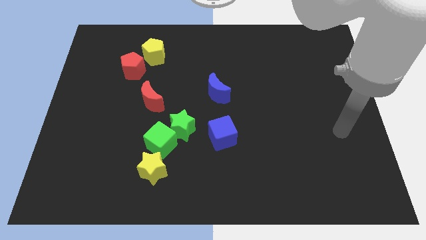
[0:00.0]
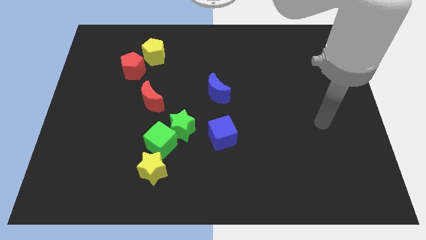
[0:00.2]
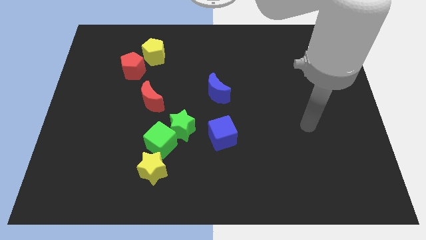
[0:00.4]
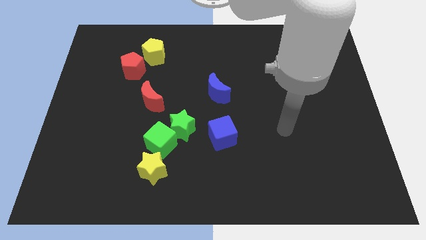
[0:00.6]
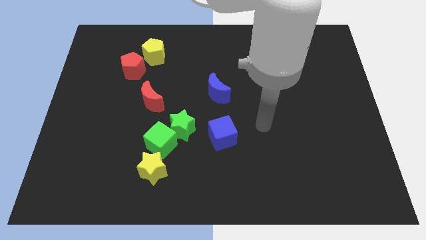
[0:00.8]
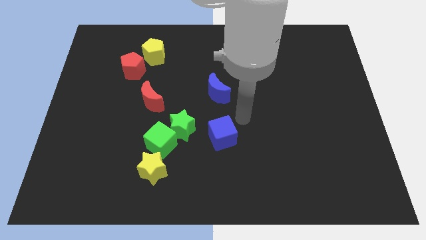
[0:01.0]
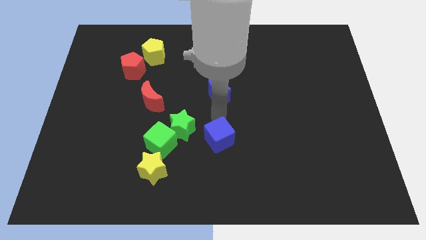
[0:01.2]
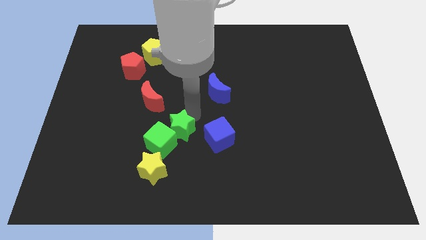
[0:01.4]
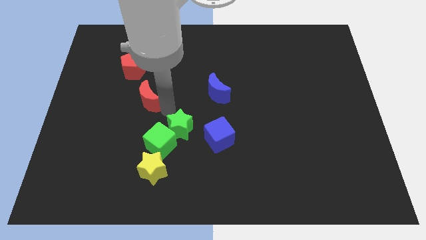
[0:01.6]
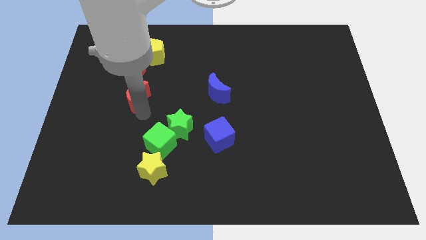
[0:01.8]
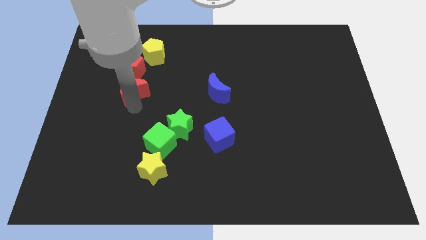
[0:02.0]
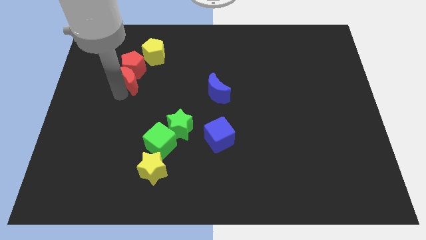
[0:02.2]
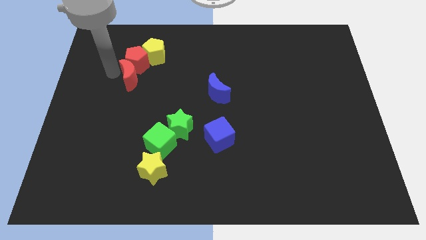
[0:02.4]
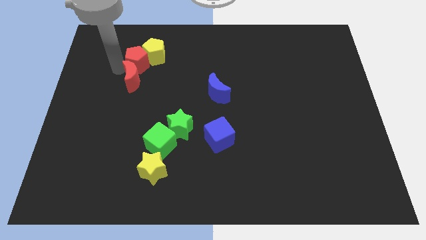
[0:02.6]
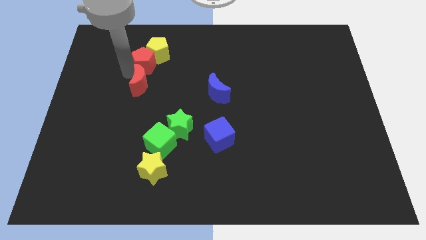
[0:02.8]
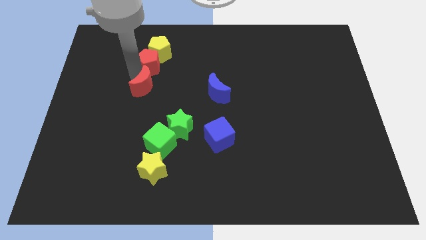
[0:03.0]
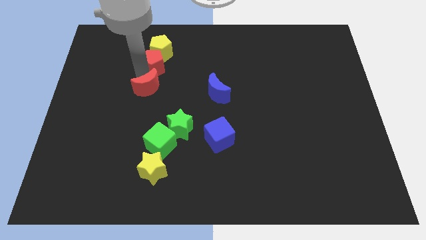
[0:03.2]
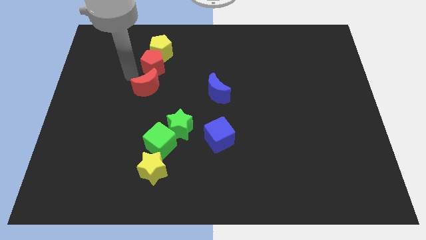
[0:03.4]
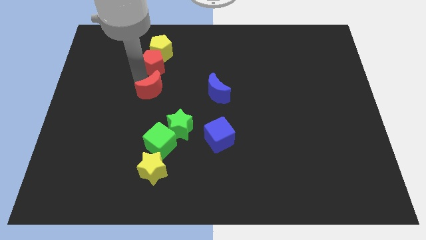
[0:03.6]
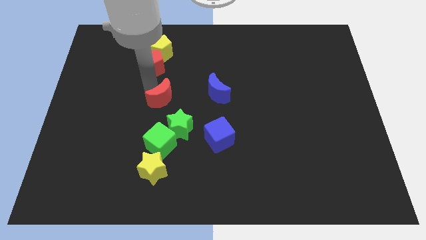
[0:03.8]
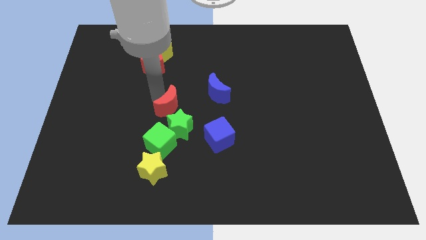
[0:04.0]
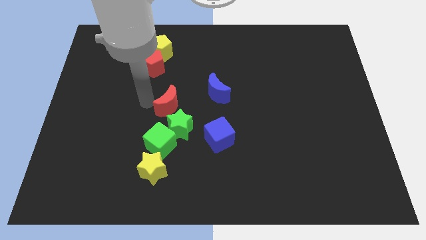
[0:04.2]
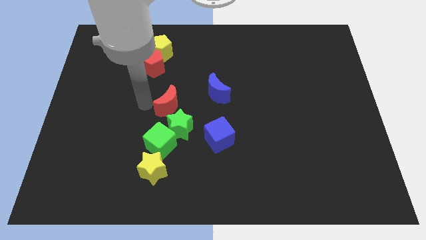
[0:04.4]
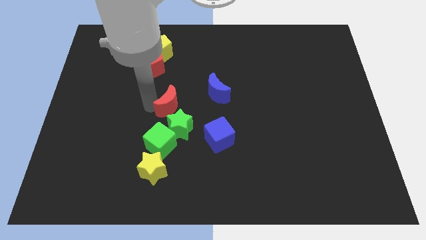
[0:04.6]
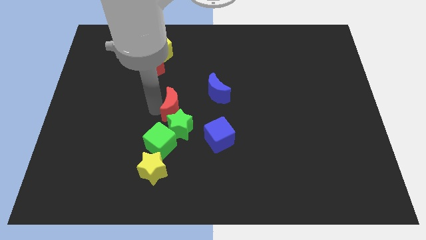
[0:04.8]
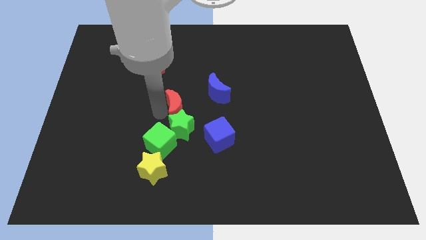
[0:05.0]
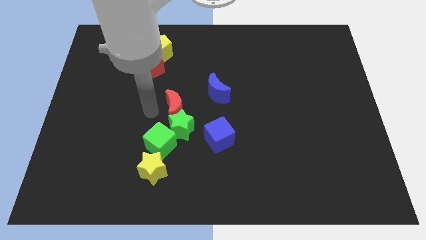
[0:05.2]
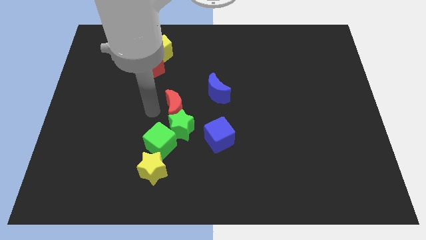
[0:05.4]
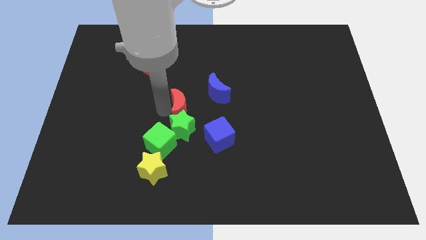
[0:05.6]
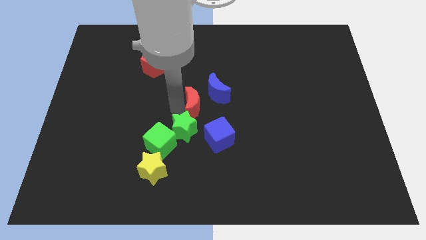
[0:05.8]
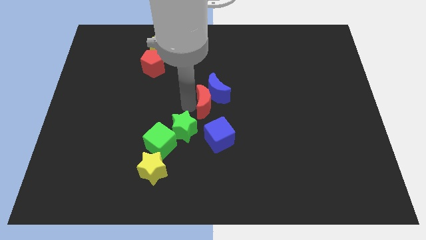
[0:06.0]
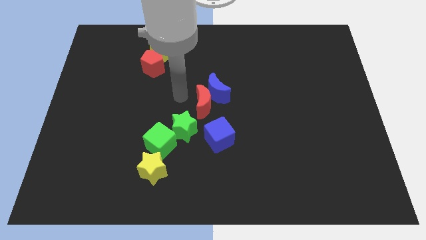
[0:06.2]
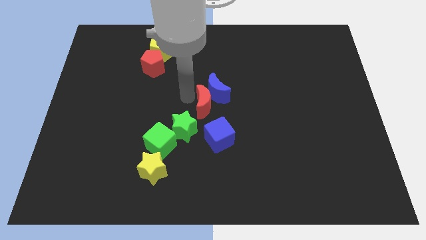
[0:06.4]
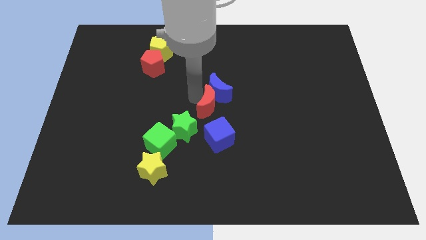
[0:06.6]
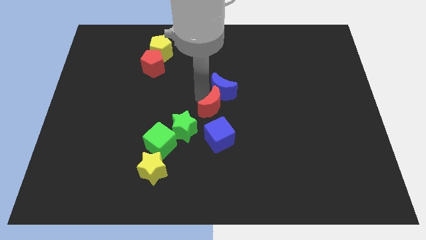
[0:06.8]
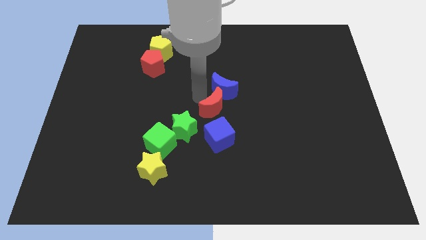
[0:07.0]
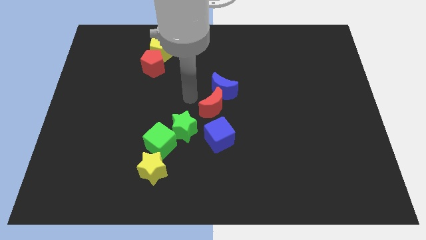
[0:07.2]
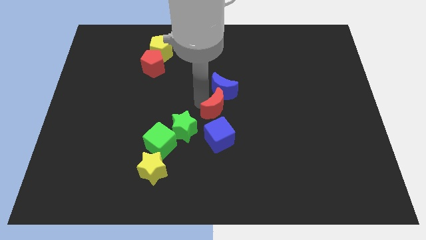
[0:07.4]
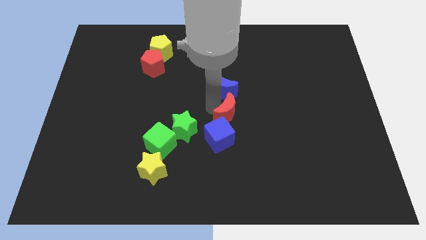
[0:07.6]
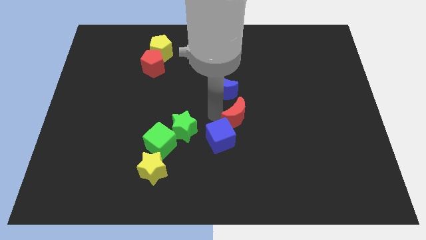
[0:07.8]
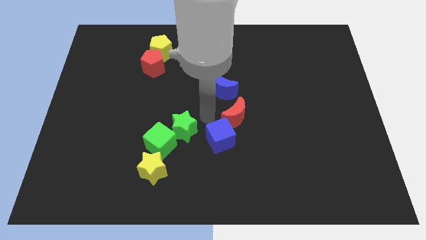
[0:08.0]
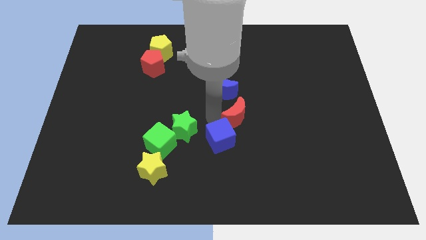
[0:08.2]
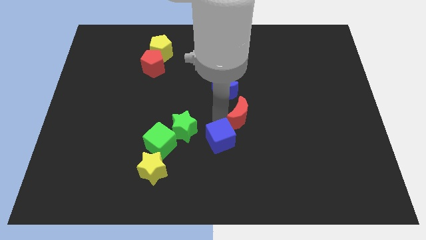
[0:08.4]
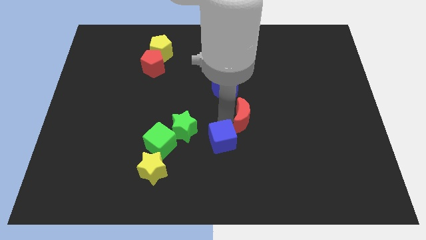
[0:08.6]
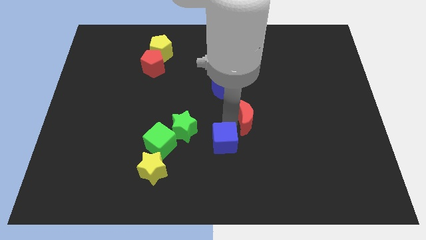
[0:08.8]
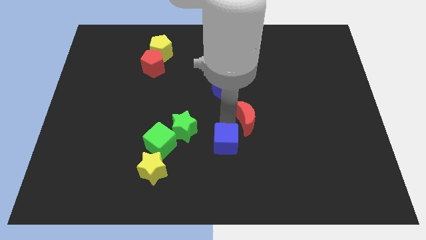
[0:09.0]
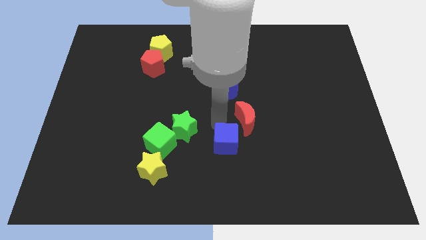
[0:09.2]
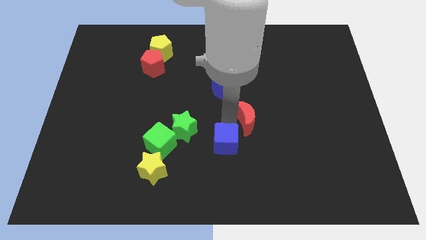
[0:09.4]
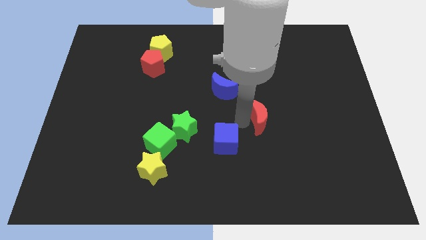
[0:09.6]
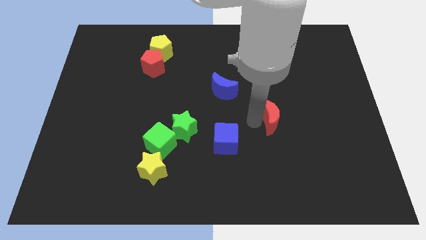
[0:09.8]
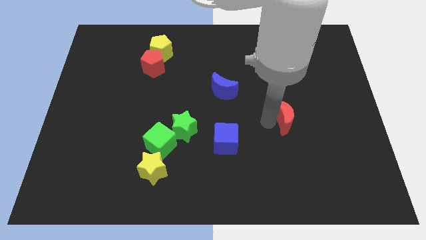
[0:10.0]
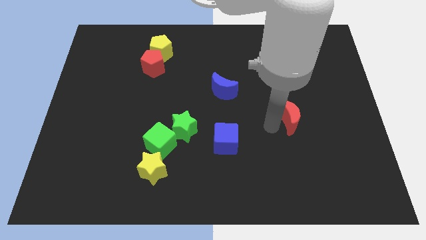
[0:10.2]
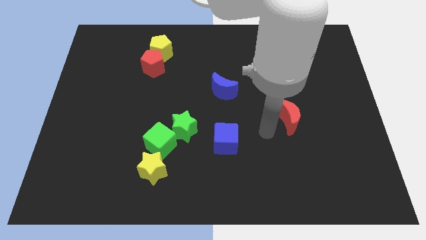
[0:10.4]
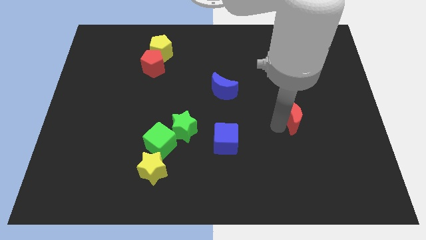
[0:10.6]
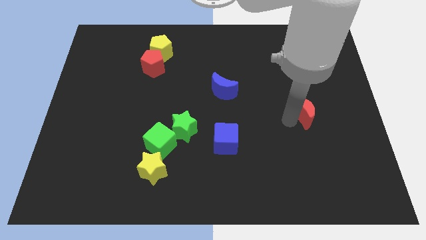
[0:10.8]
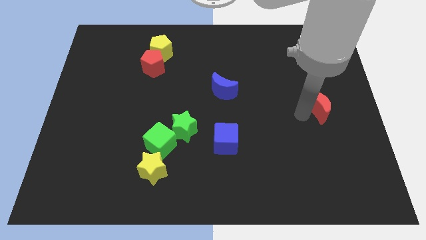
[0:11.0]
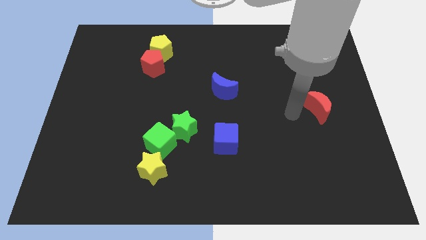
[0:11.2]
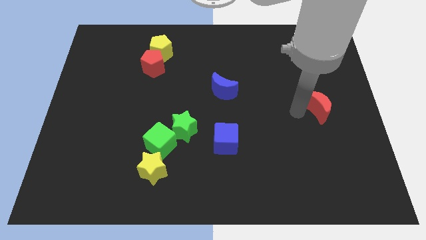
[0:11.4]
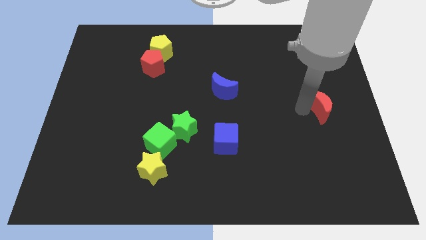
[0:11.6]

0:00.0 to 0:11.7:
move the red moon to the center right

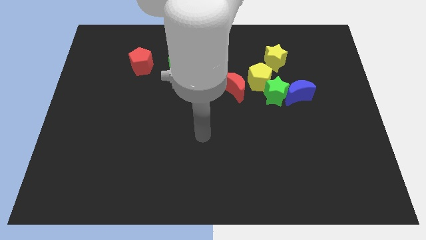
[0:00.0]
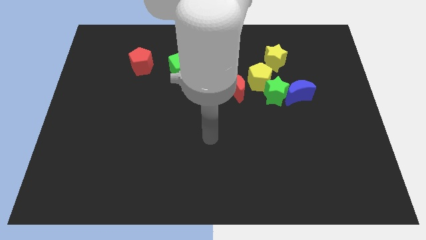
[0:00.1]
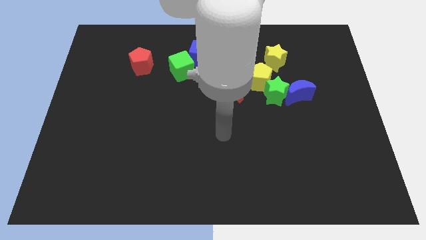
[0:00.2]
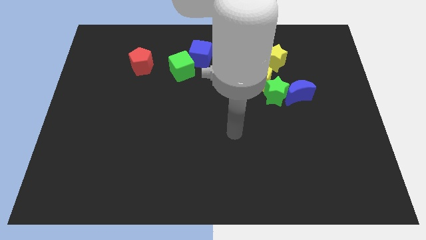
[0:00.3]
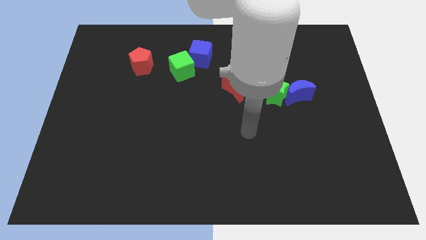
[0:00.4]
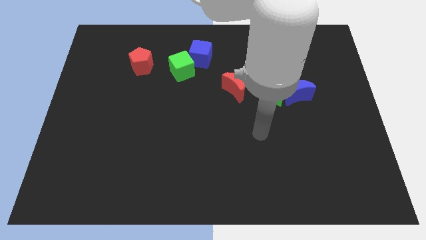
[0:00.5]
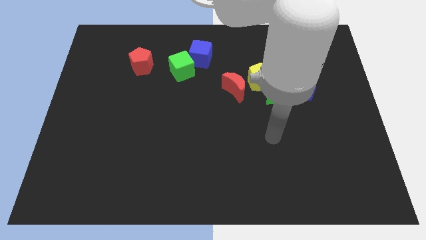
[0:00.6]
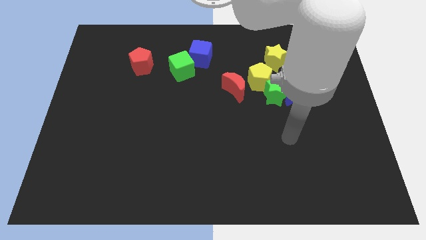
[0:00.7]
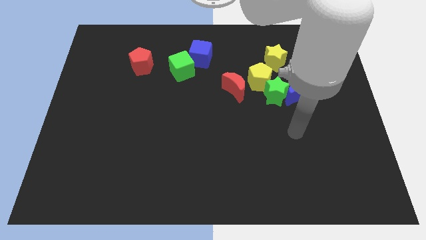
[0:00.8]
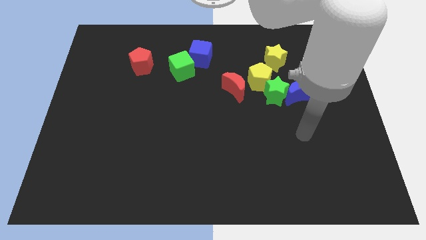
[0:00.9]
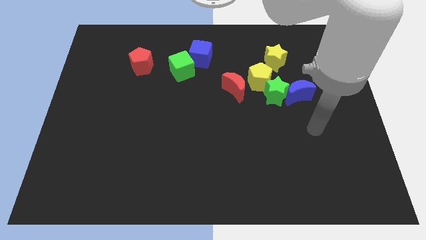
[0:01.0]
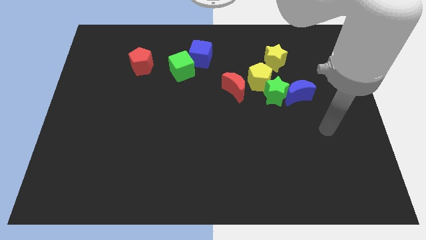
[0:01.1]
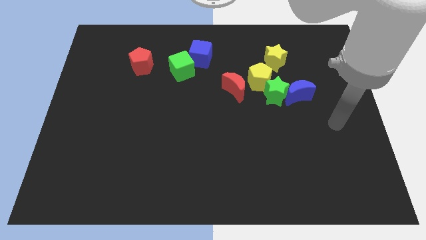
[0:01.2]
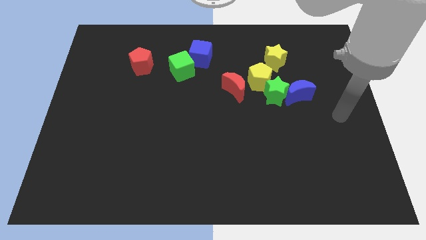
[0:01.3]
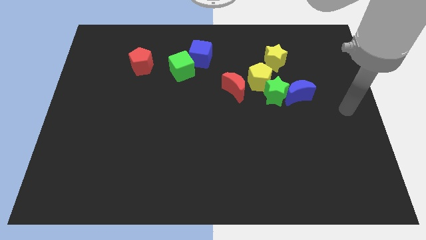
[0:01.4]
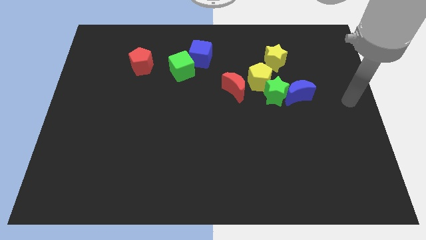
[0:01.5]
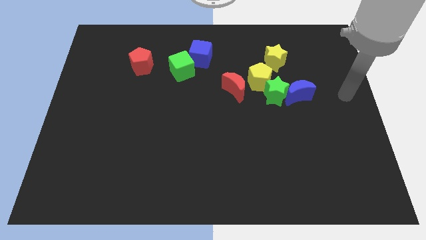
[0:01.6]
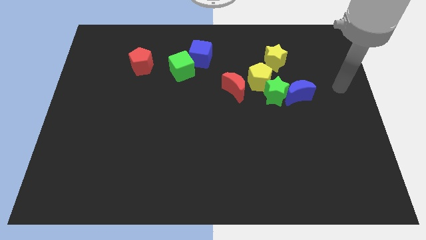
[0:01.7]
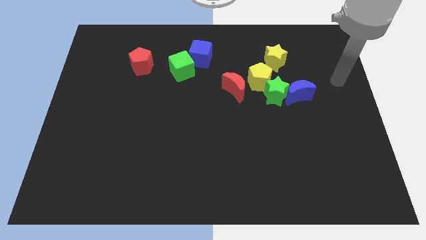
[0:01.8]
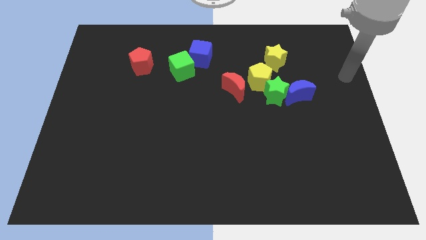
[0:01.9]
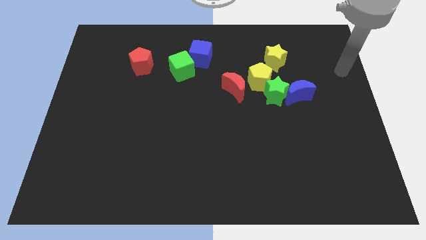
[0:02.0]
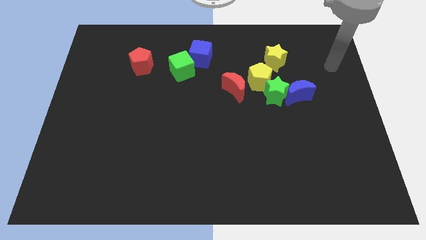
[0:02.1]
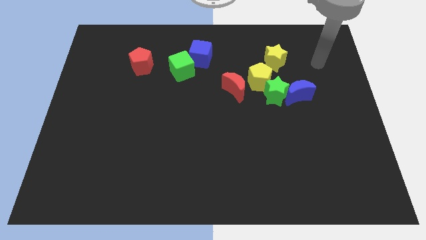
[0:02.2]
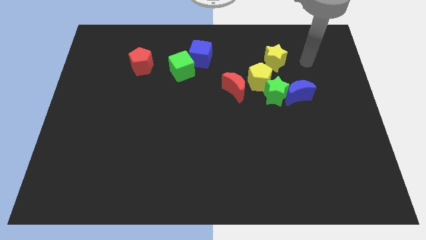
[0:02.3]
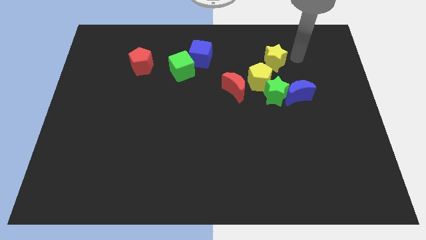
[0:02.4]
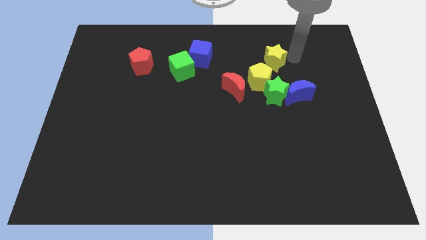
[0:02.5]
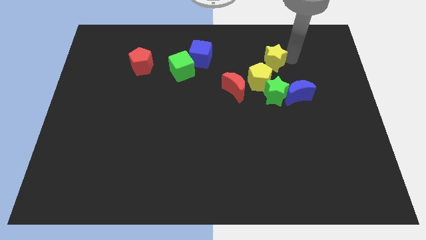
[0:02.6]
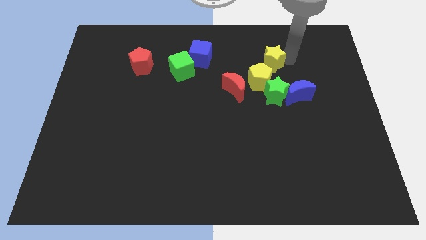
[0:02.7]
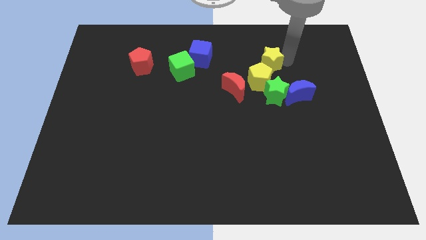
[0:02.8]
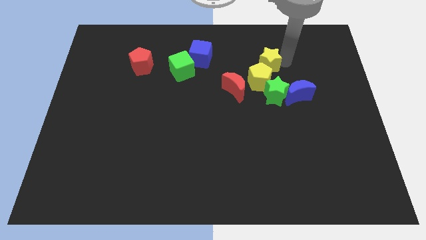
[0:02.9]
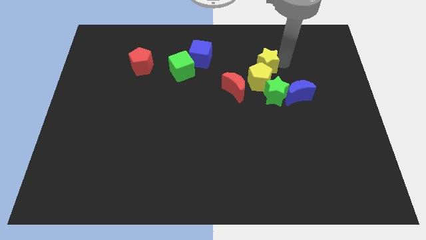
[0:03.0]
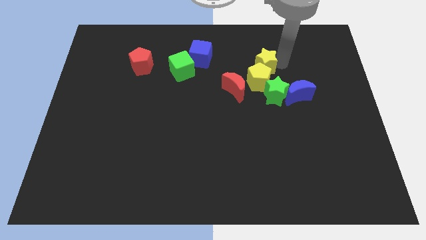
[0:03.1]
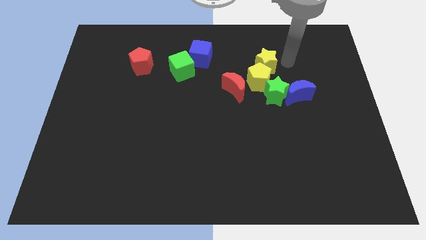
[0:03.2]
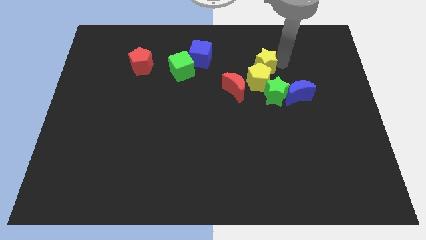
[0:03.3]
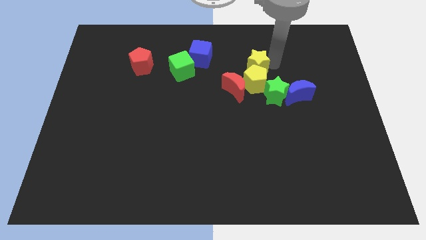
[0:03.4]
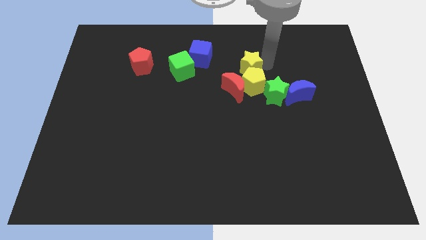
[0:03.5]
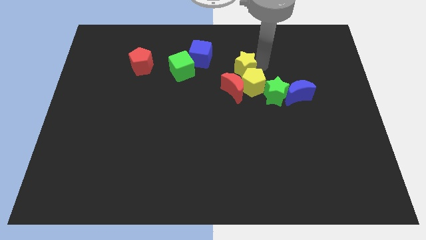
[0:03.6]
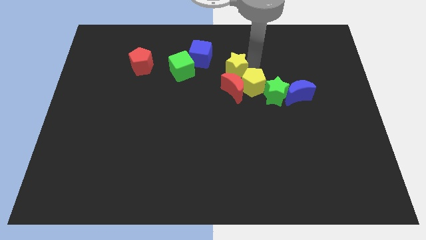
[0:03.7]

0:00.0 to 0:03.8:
put the yellow star to the center
